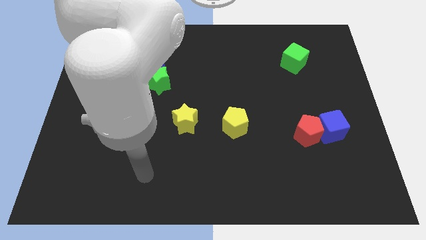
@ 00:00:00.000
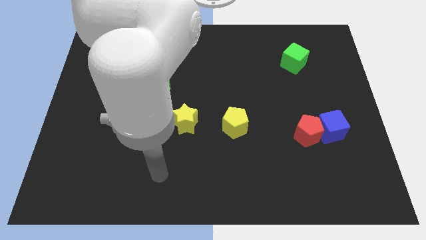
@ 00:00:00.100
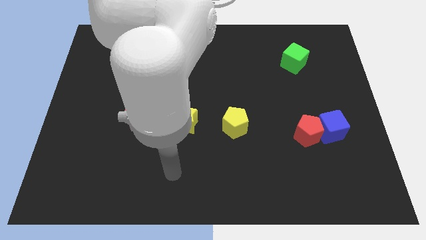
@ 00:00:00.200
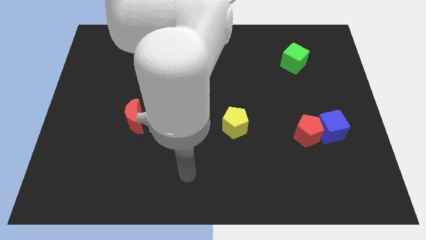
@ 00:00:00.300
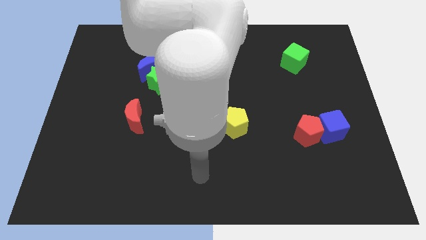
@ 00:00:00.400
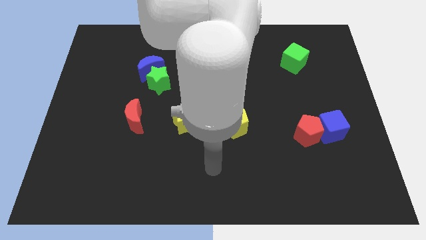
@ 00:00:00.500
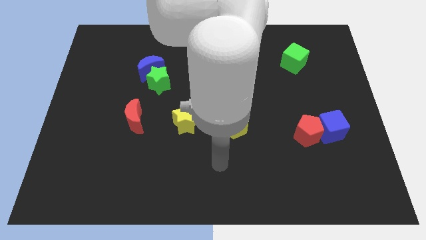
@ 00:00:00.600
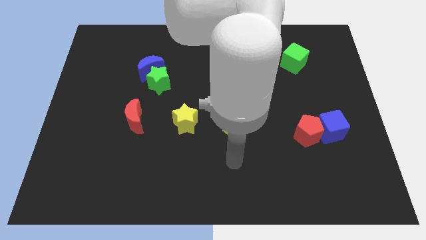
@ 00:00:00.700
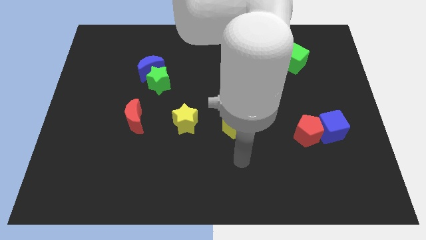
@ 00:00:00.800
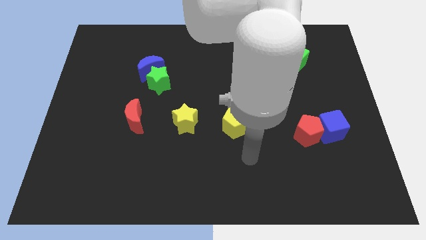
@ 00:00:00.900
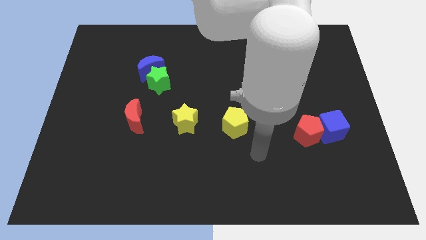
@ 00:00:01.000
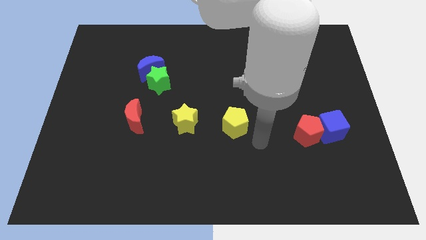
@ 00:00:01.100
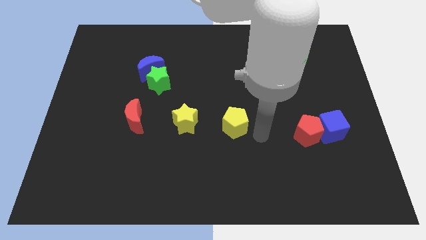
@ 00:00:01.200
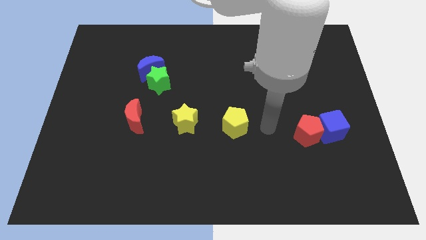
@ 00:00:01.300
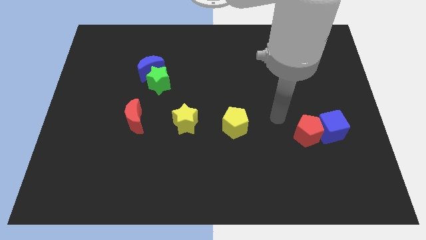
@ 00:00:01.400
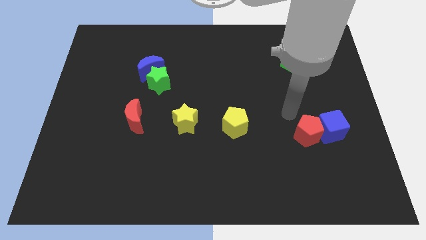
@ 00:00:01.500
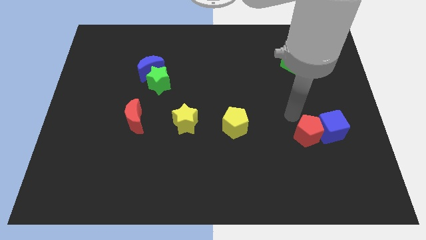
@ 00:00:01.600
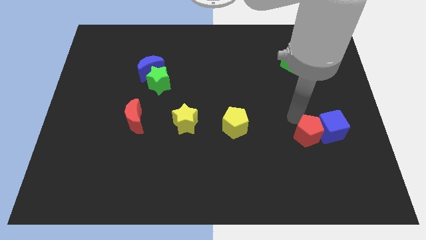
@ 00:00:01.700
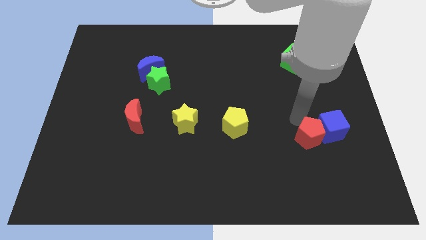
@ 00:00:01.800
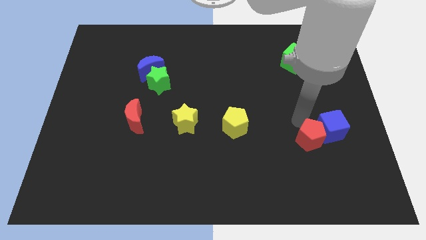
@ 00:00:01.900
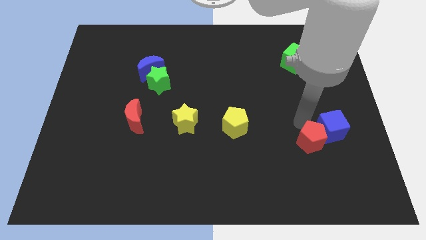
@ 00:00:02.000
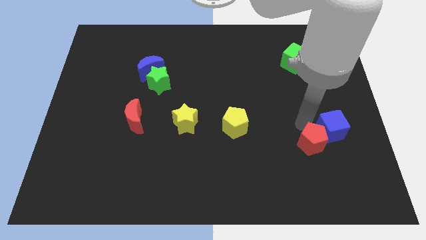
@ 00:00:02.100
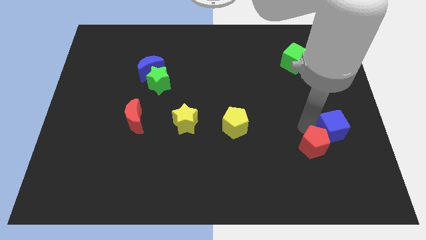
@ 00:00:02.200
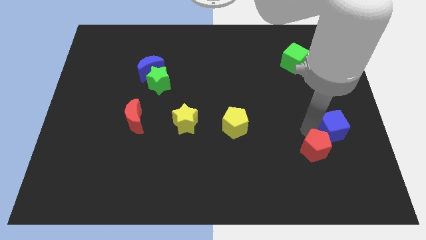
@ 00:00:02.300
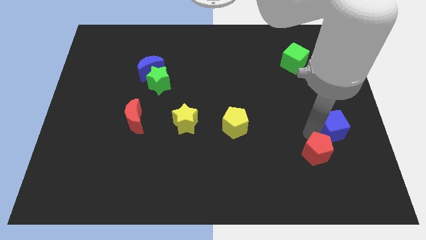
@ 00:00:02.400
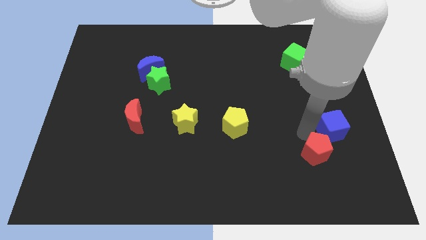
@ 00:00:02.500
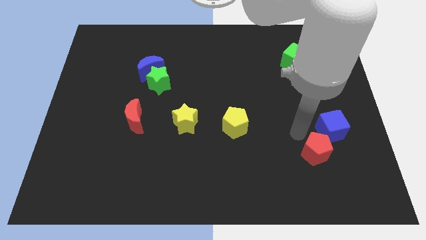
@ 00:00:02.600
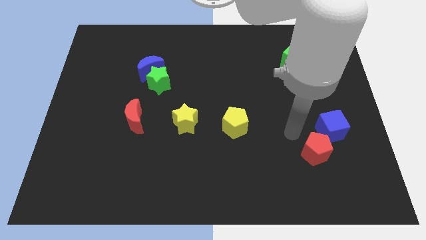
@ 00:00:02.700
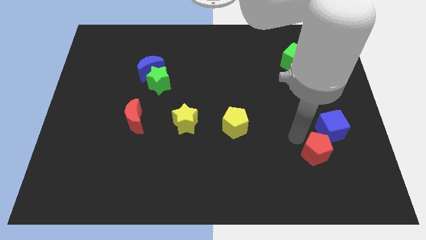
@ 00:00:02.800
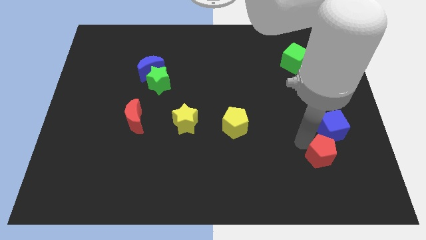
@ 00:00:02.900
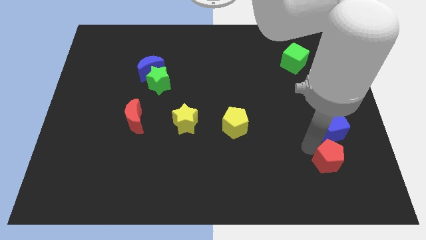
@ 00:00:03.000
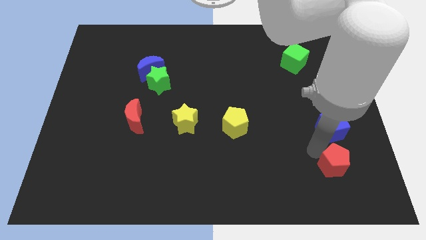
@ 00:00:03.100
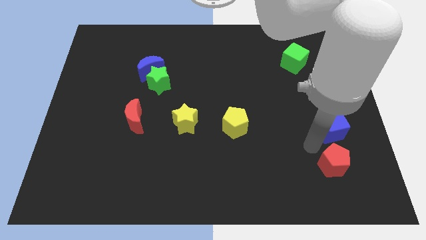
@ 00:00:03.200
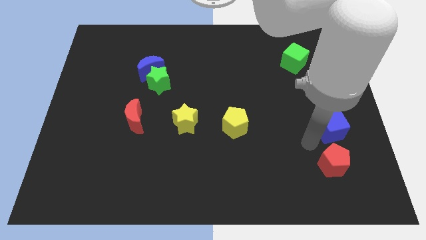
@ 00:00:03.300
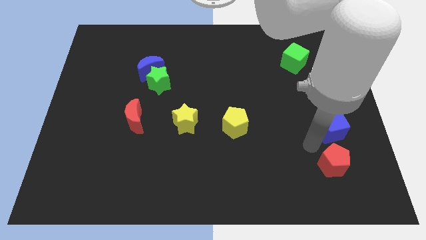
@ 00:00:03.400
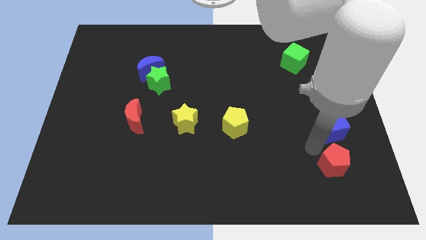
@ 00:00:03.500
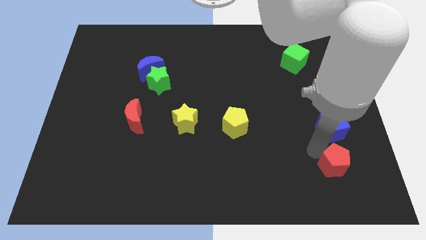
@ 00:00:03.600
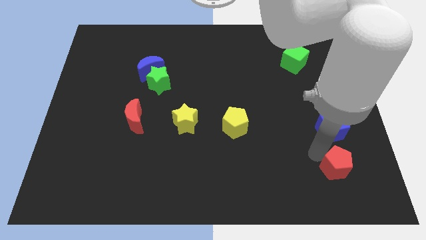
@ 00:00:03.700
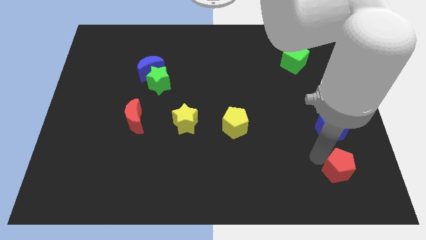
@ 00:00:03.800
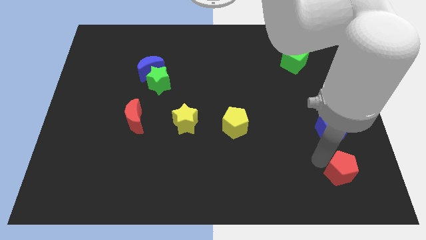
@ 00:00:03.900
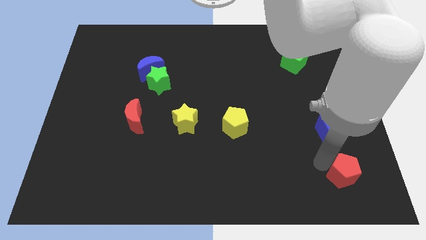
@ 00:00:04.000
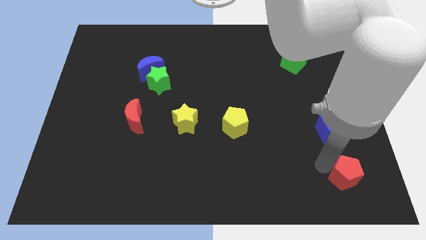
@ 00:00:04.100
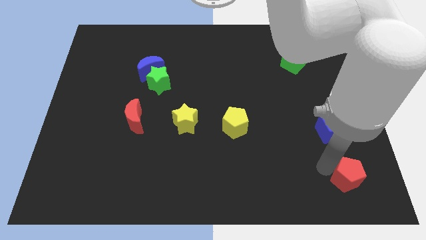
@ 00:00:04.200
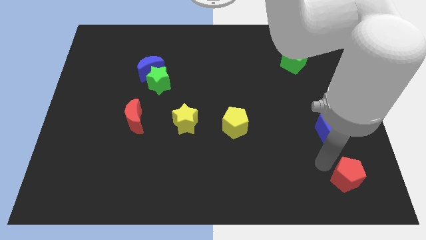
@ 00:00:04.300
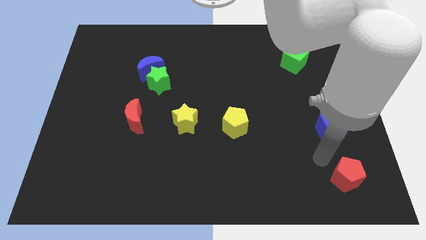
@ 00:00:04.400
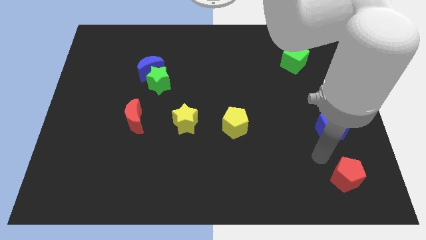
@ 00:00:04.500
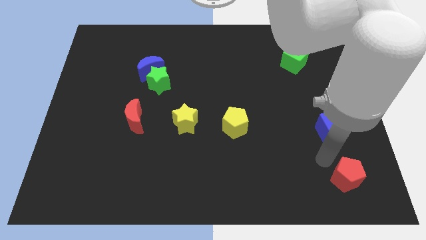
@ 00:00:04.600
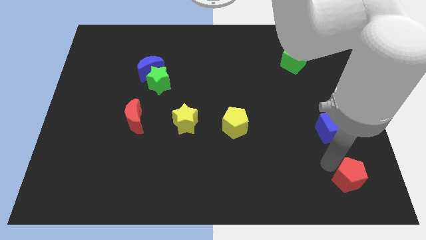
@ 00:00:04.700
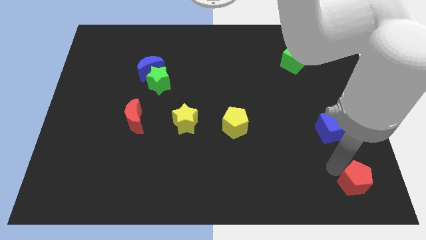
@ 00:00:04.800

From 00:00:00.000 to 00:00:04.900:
push the red pentagon to the bottom right of the board

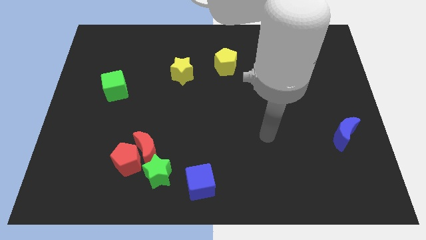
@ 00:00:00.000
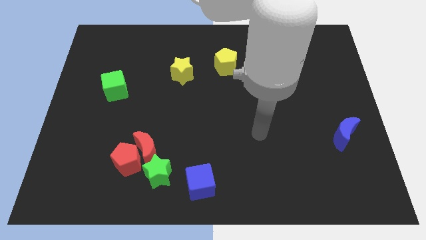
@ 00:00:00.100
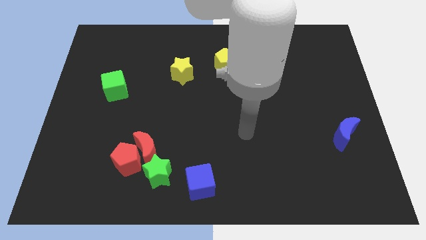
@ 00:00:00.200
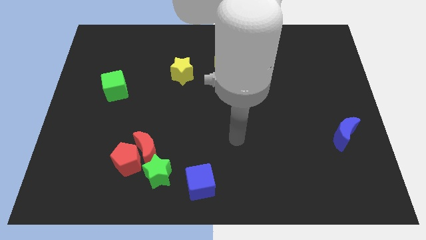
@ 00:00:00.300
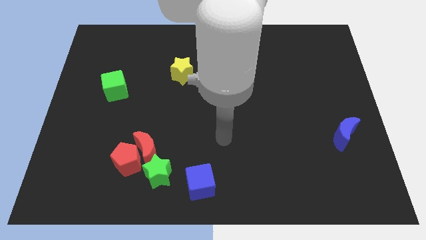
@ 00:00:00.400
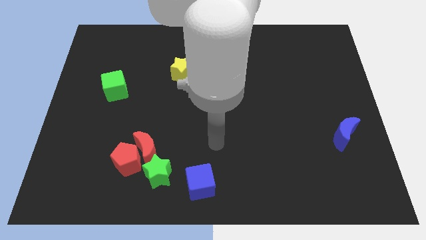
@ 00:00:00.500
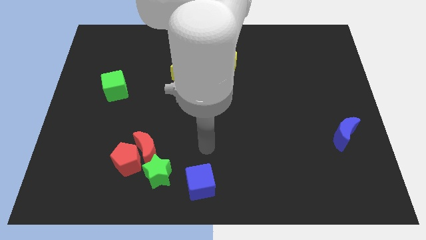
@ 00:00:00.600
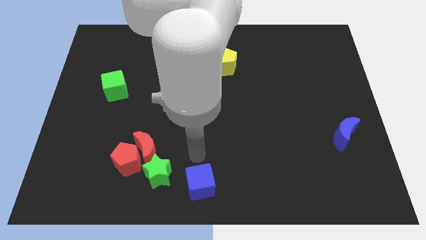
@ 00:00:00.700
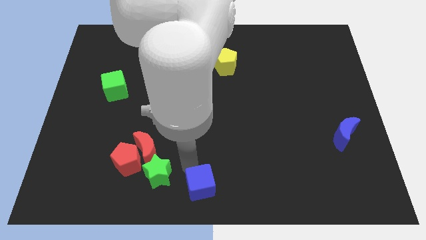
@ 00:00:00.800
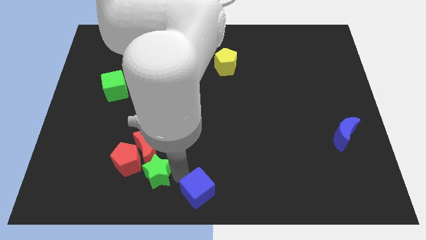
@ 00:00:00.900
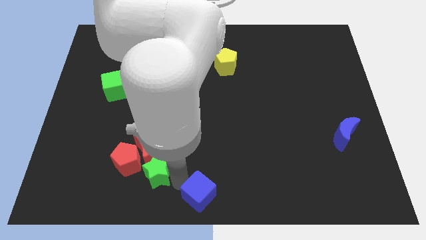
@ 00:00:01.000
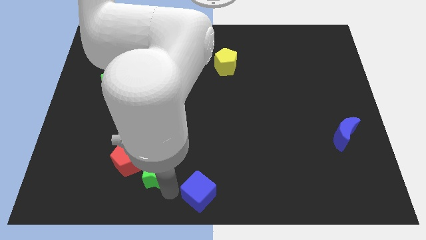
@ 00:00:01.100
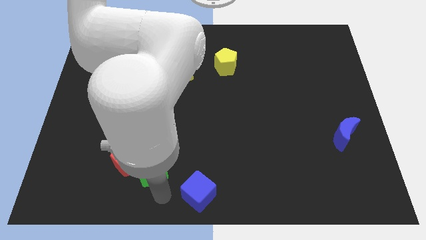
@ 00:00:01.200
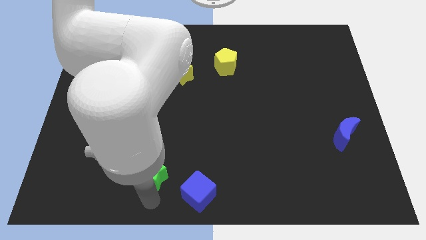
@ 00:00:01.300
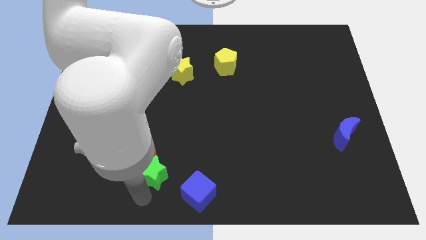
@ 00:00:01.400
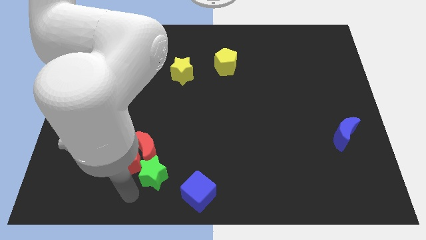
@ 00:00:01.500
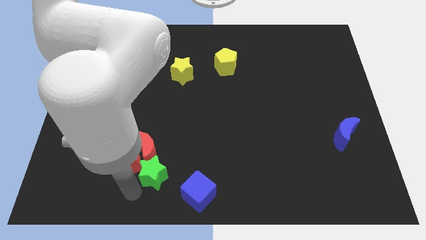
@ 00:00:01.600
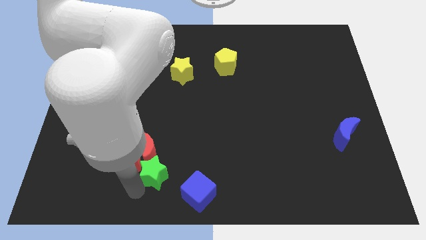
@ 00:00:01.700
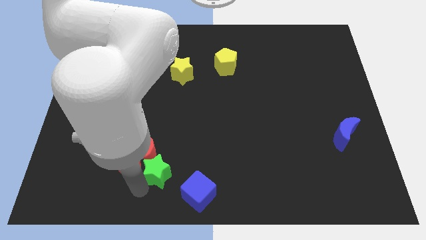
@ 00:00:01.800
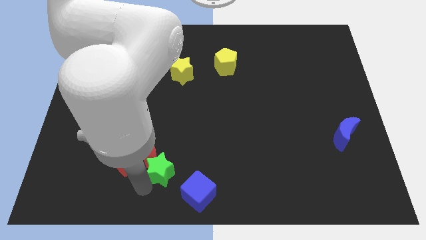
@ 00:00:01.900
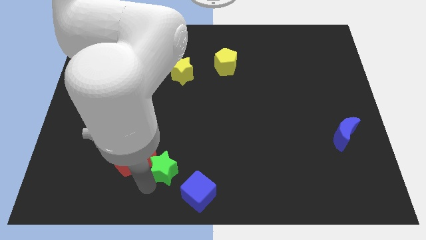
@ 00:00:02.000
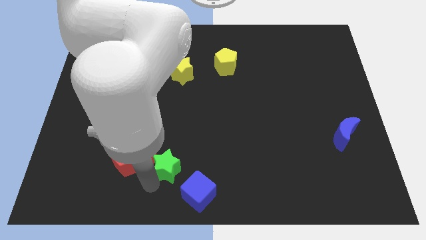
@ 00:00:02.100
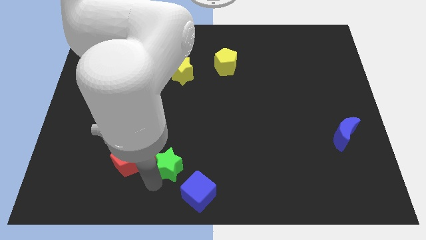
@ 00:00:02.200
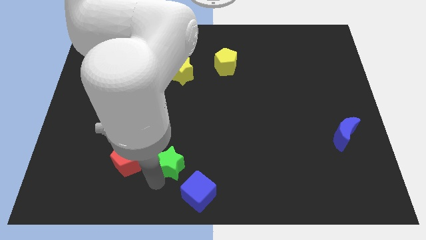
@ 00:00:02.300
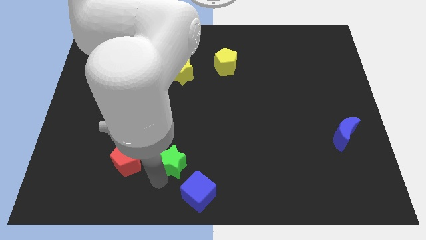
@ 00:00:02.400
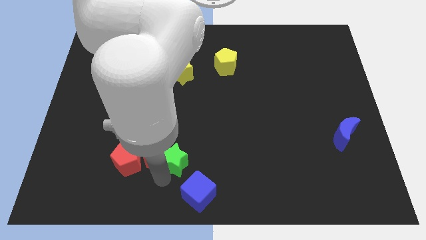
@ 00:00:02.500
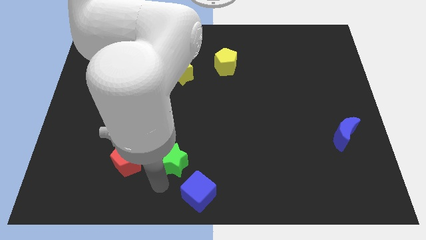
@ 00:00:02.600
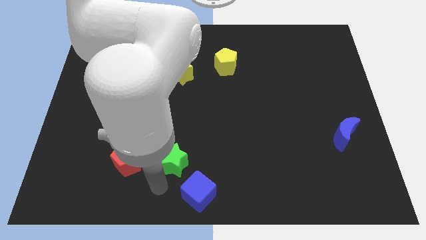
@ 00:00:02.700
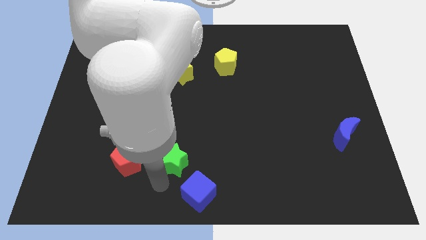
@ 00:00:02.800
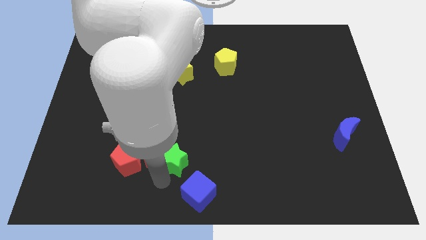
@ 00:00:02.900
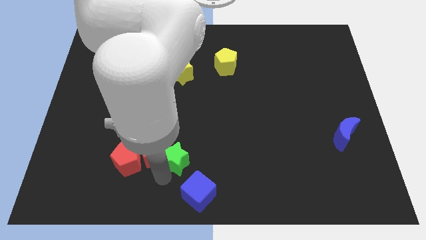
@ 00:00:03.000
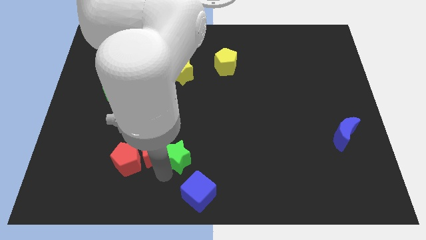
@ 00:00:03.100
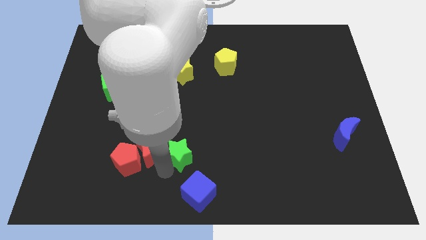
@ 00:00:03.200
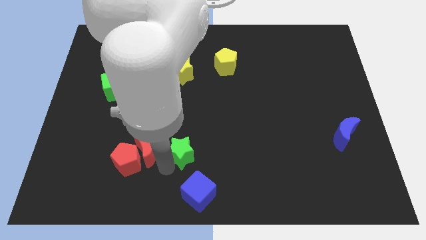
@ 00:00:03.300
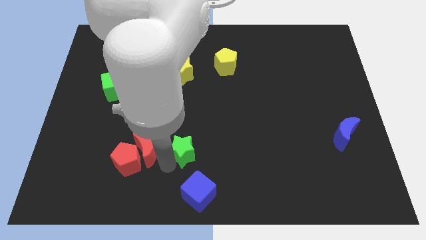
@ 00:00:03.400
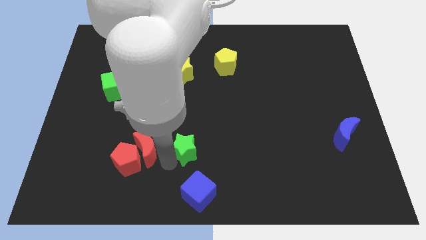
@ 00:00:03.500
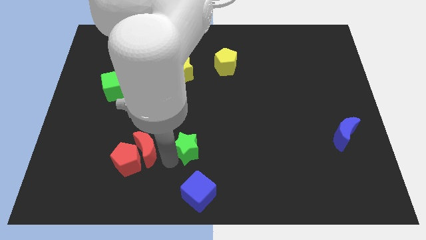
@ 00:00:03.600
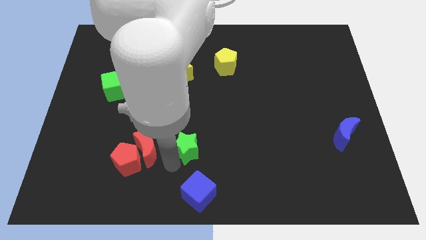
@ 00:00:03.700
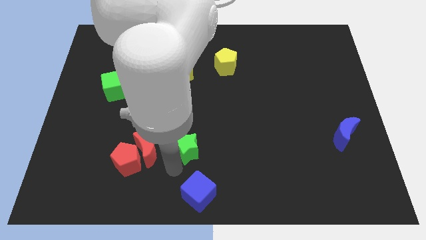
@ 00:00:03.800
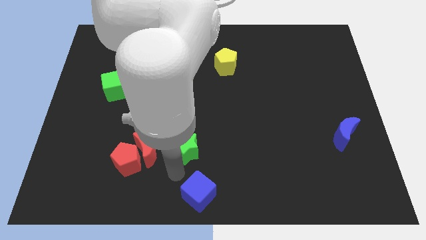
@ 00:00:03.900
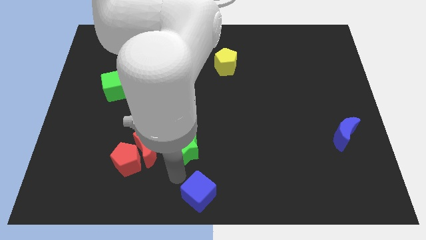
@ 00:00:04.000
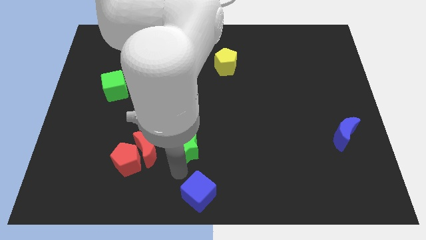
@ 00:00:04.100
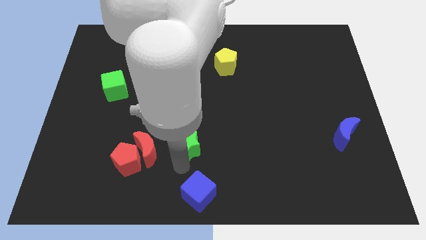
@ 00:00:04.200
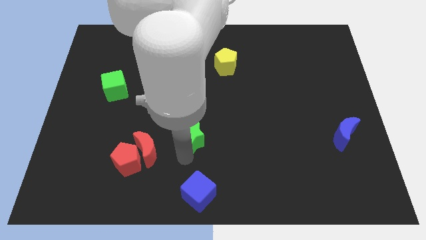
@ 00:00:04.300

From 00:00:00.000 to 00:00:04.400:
push the green star to the center
